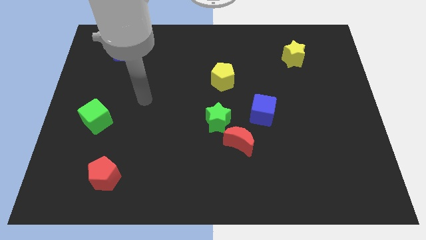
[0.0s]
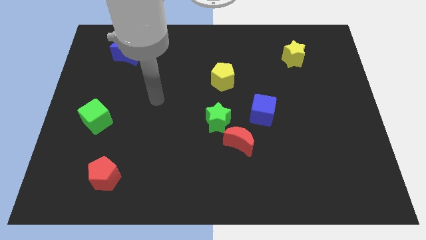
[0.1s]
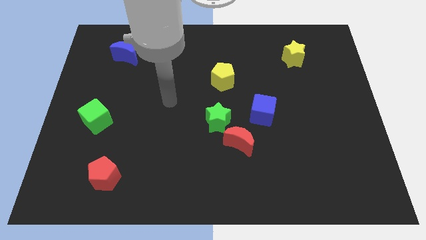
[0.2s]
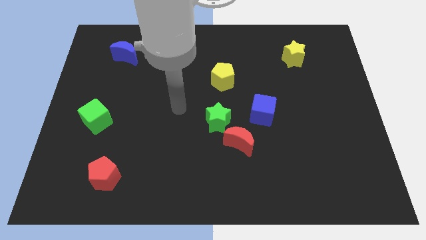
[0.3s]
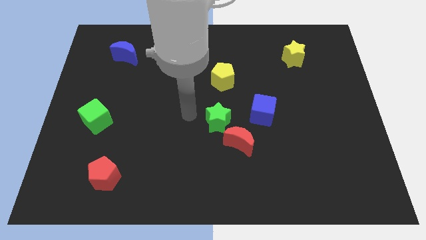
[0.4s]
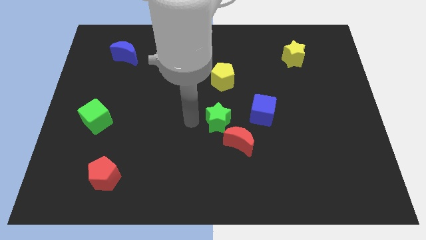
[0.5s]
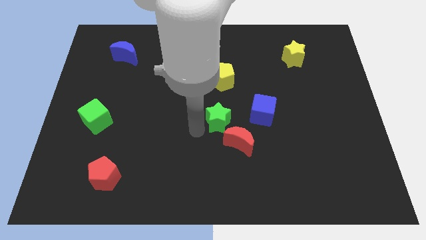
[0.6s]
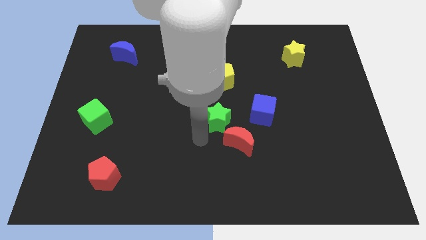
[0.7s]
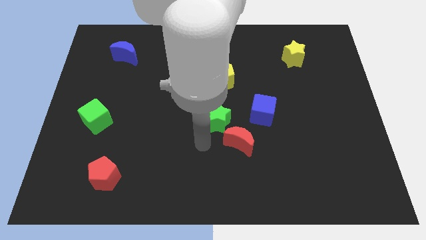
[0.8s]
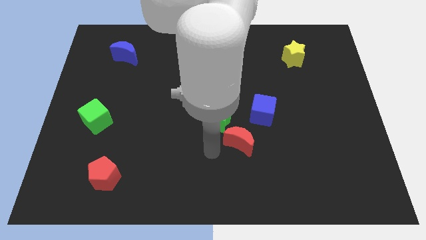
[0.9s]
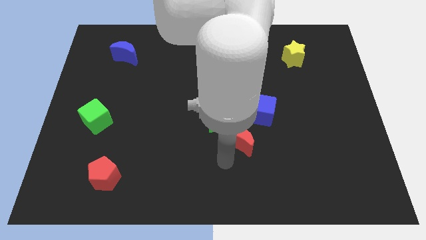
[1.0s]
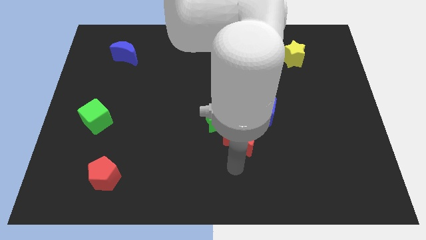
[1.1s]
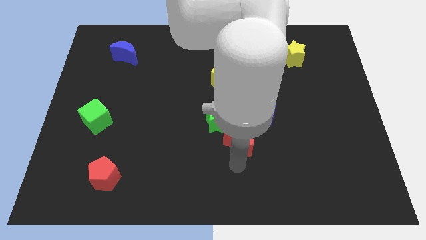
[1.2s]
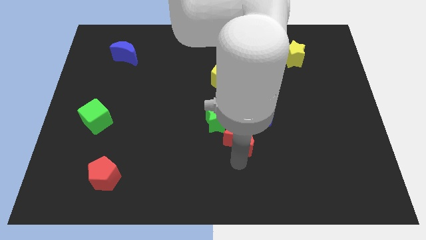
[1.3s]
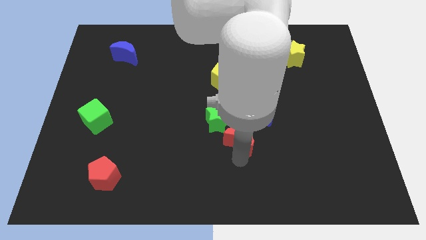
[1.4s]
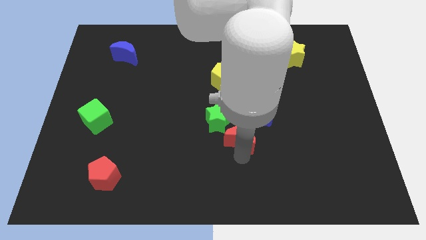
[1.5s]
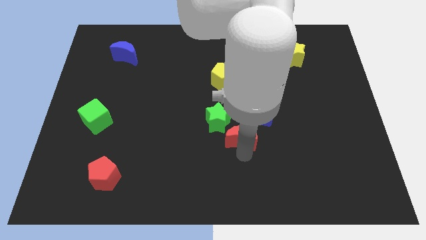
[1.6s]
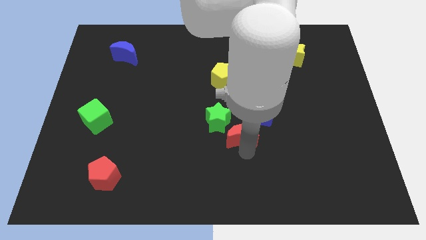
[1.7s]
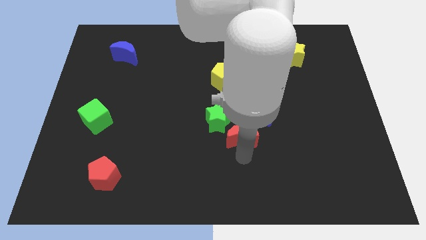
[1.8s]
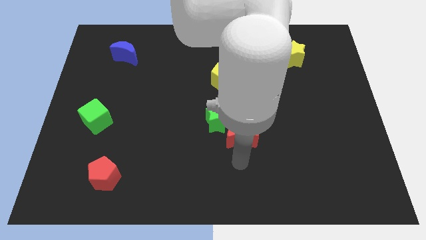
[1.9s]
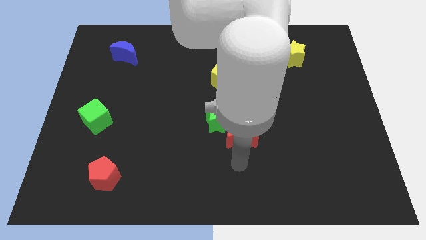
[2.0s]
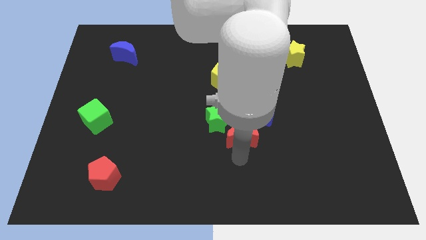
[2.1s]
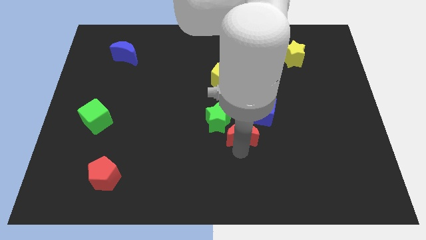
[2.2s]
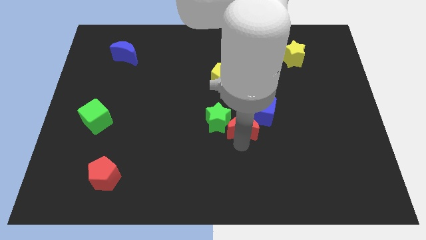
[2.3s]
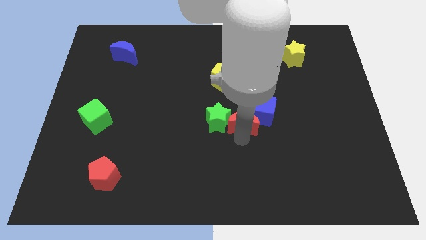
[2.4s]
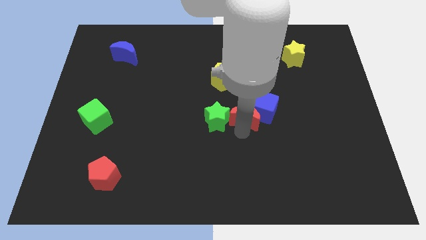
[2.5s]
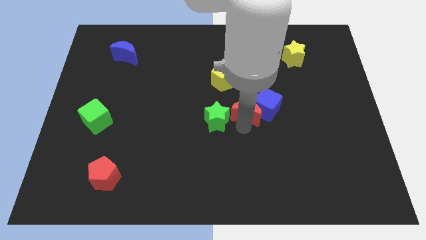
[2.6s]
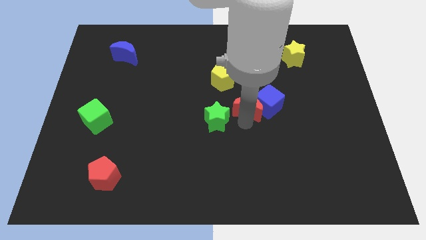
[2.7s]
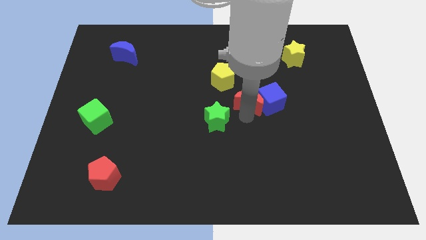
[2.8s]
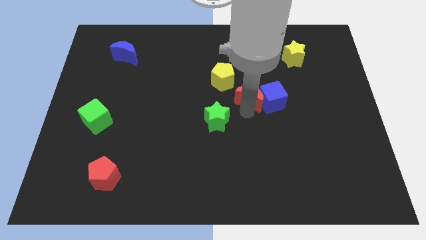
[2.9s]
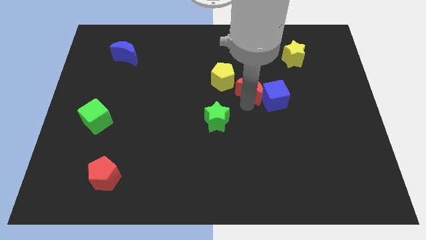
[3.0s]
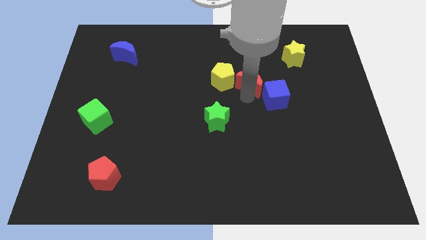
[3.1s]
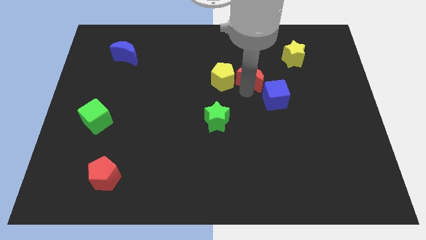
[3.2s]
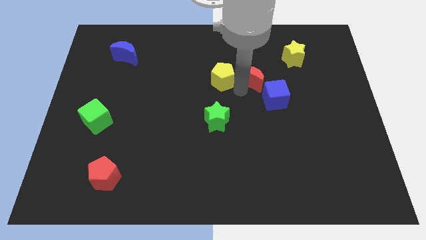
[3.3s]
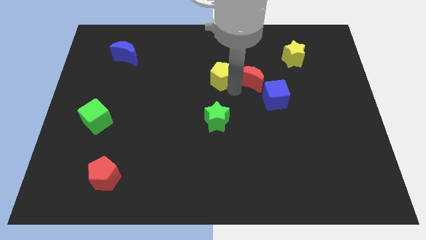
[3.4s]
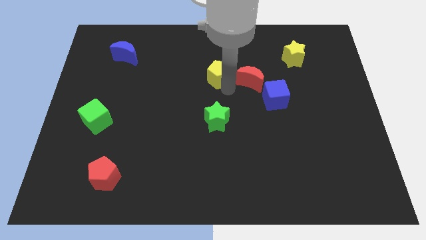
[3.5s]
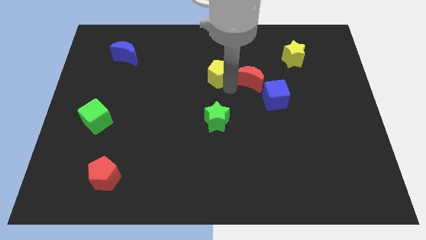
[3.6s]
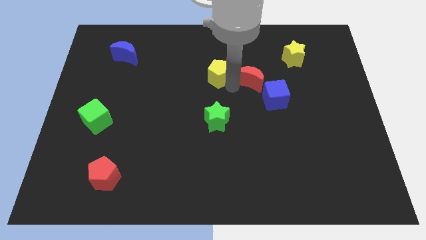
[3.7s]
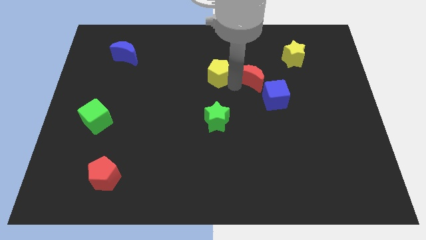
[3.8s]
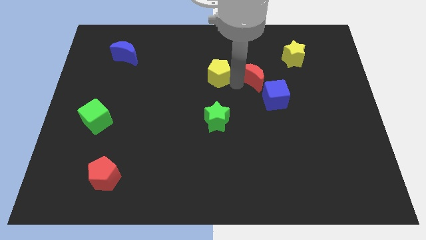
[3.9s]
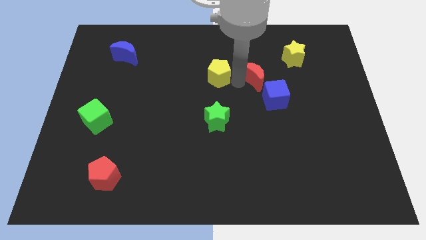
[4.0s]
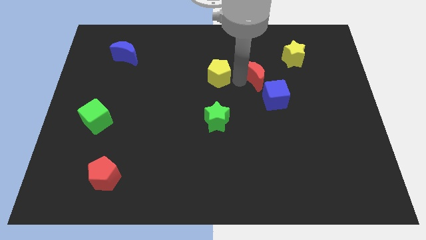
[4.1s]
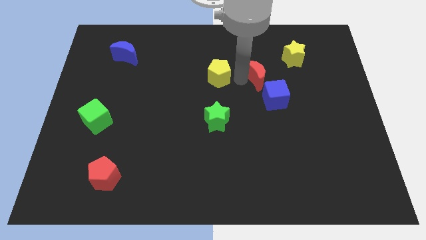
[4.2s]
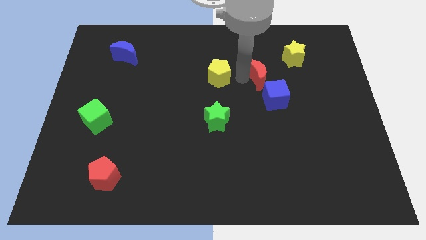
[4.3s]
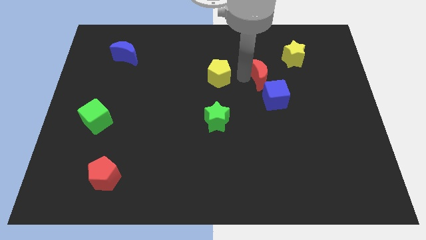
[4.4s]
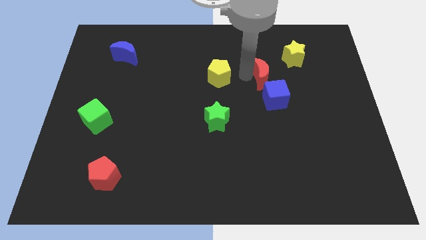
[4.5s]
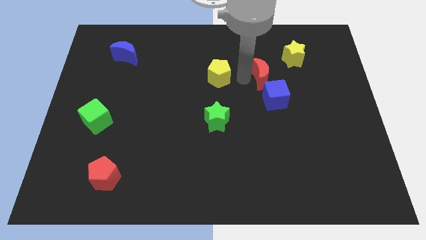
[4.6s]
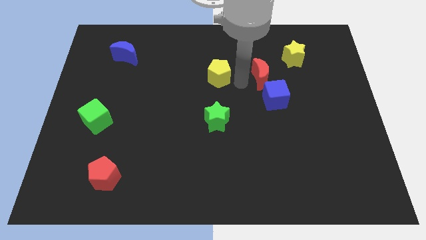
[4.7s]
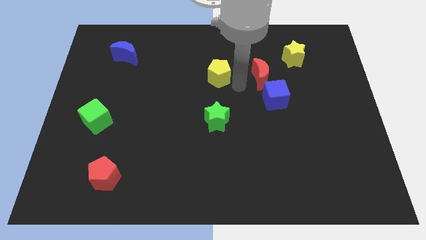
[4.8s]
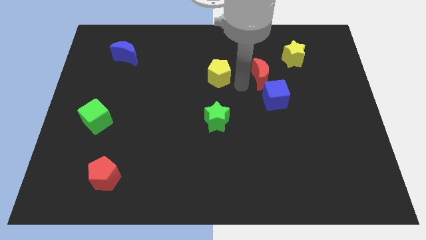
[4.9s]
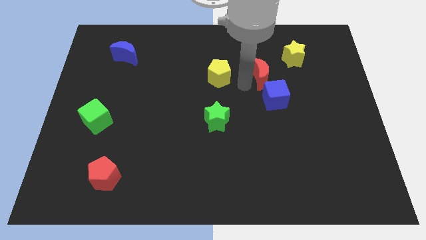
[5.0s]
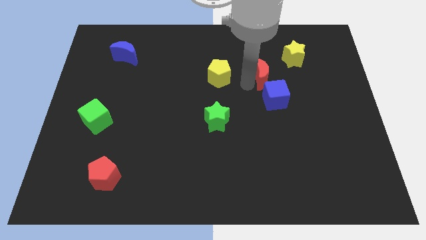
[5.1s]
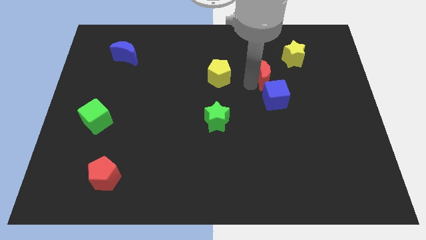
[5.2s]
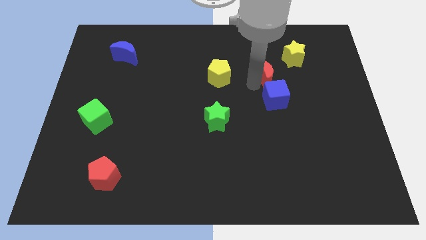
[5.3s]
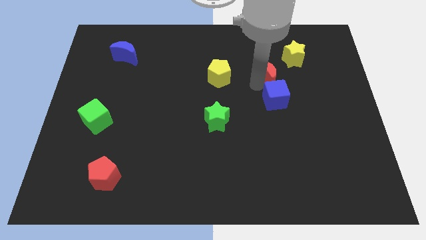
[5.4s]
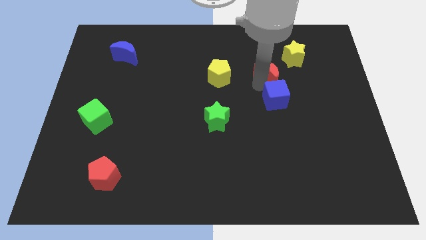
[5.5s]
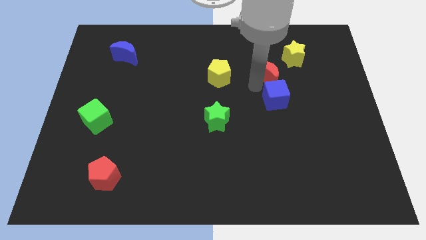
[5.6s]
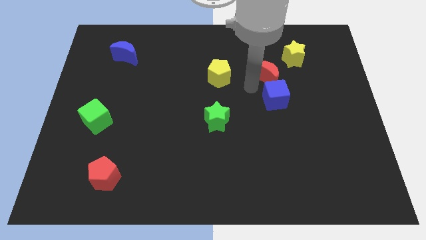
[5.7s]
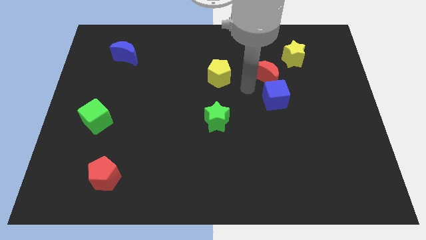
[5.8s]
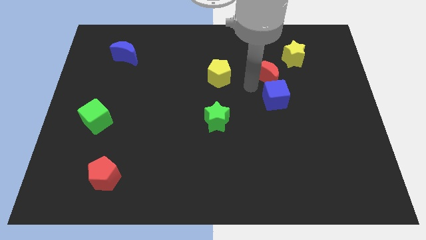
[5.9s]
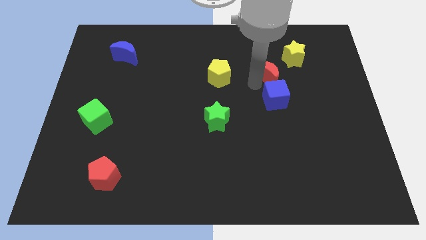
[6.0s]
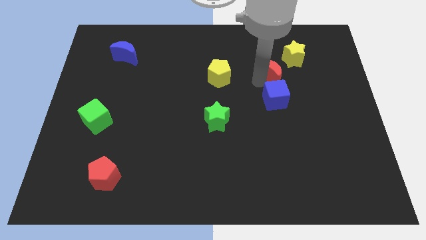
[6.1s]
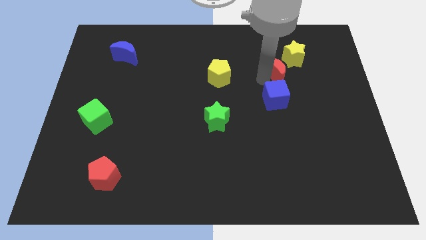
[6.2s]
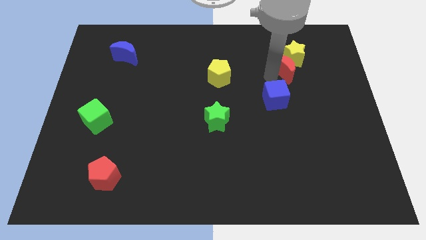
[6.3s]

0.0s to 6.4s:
put the red moon close to the yellow star

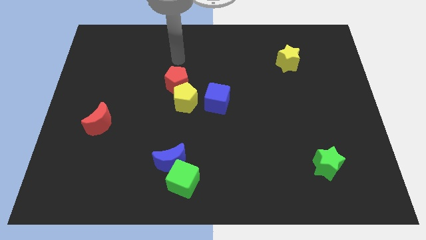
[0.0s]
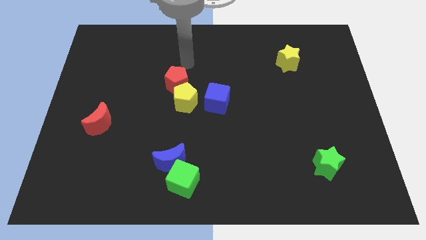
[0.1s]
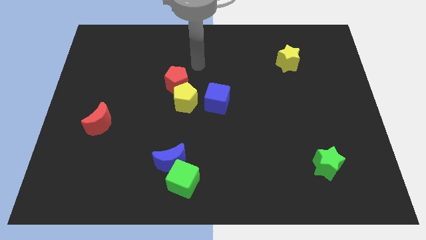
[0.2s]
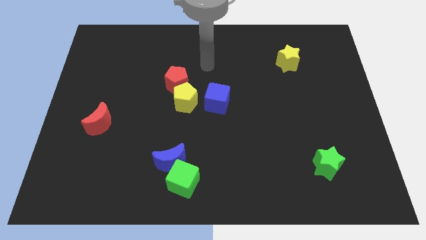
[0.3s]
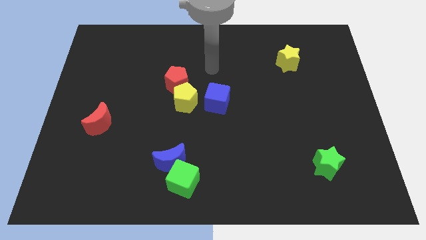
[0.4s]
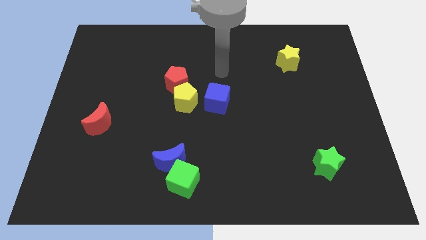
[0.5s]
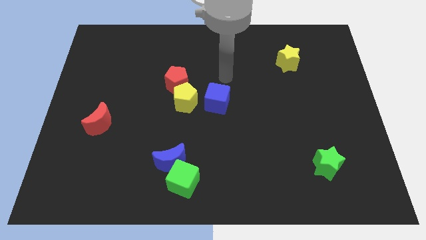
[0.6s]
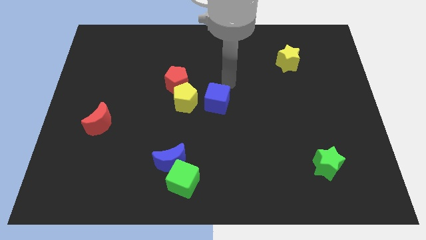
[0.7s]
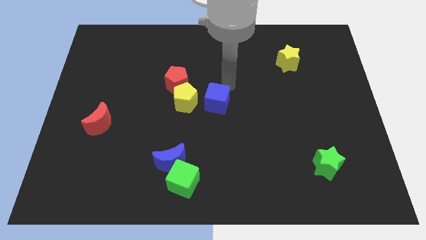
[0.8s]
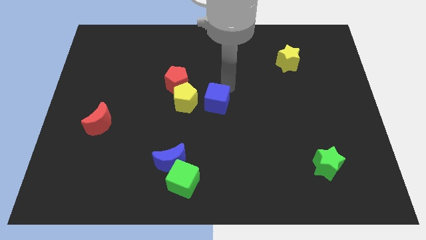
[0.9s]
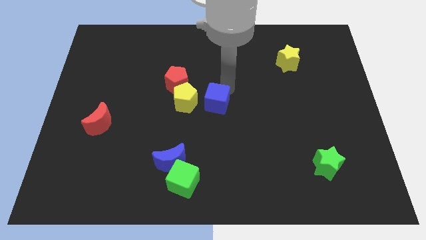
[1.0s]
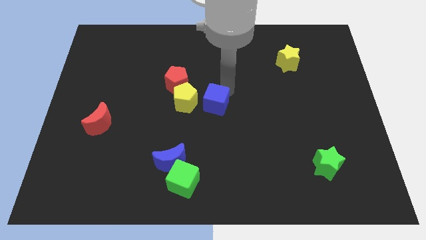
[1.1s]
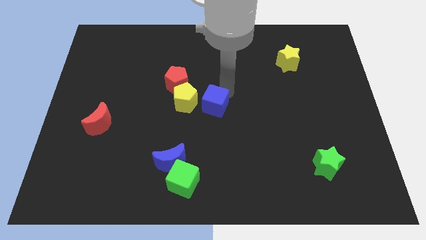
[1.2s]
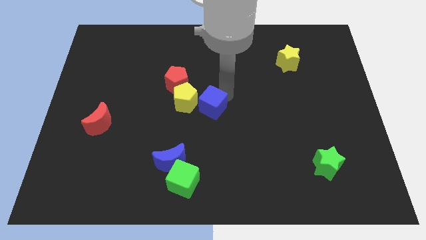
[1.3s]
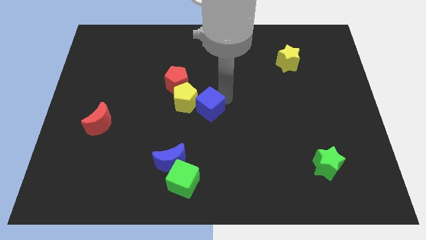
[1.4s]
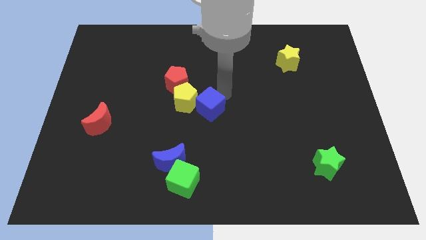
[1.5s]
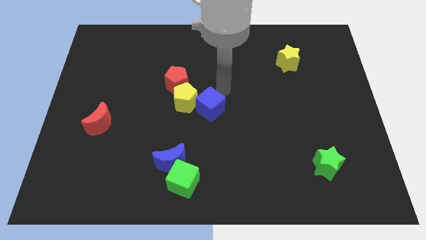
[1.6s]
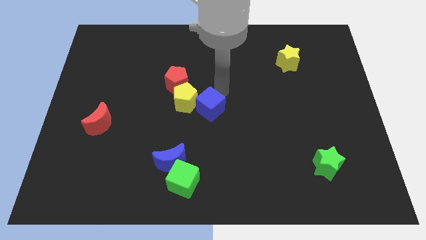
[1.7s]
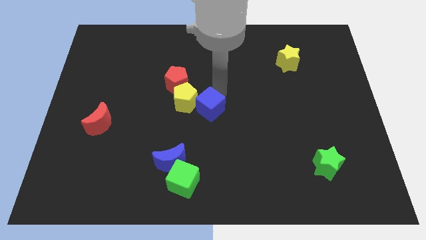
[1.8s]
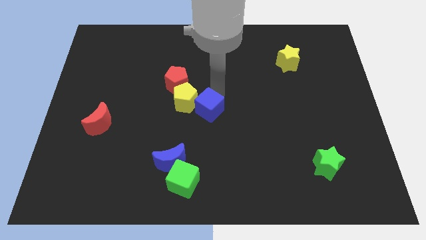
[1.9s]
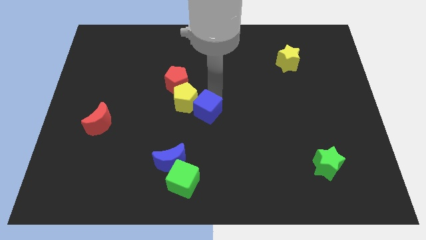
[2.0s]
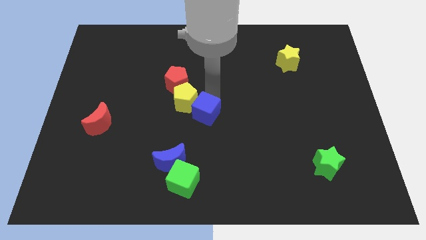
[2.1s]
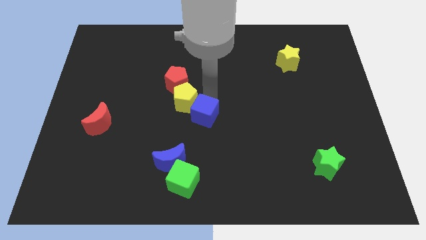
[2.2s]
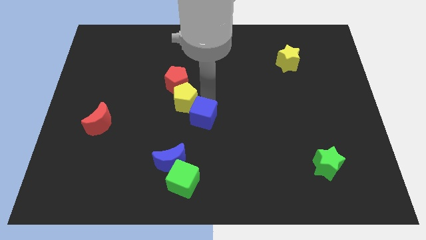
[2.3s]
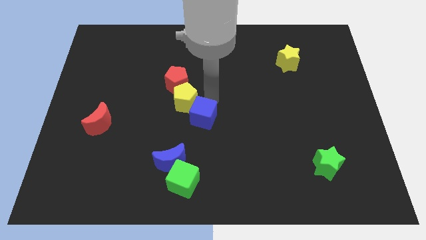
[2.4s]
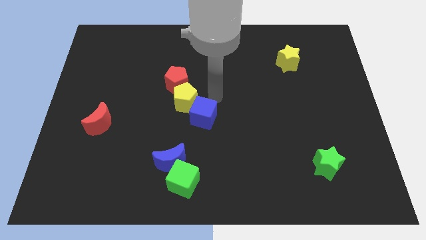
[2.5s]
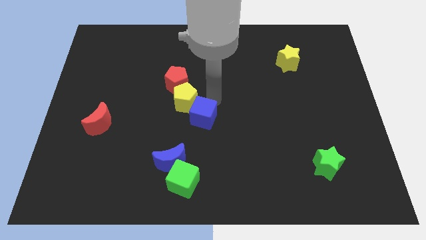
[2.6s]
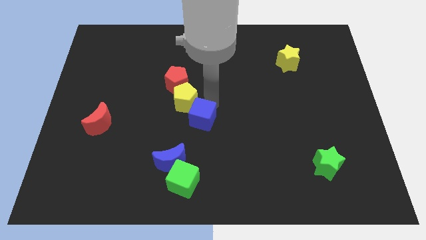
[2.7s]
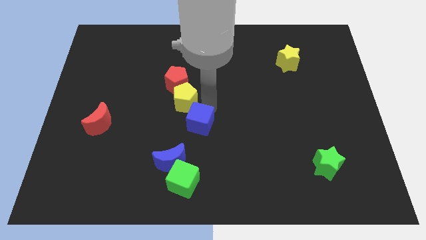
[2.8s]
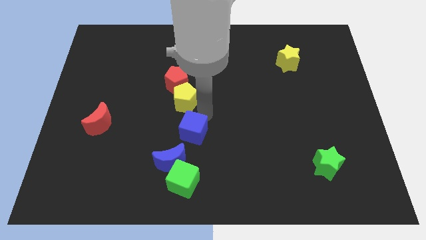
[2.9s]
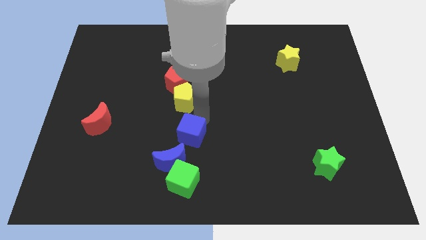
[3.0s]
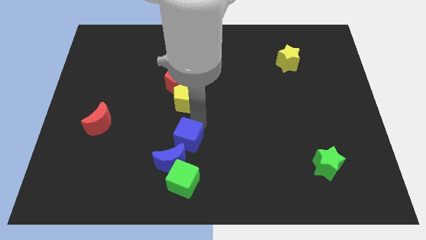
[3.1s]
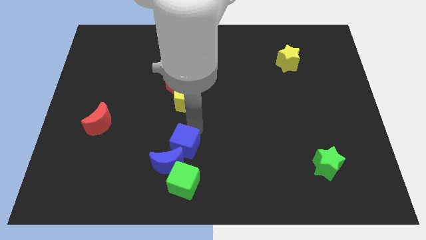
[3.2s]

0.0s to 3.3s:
move the blue cube to the blue moon
